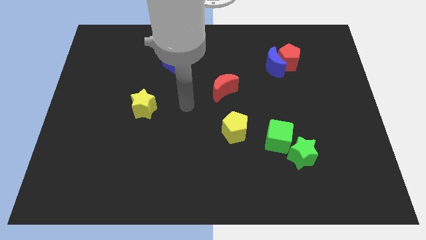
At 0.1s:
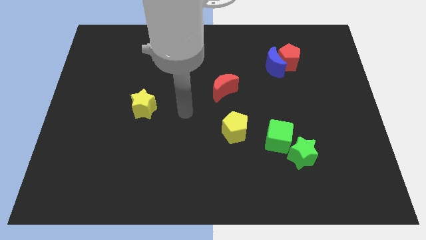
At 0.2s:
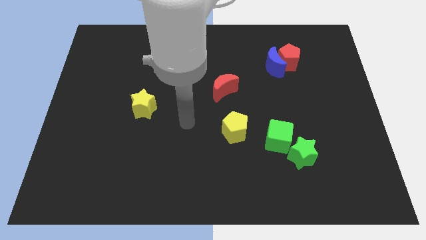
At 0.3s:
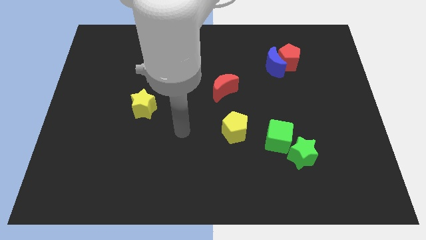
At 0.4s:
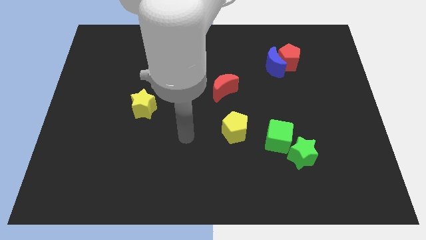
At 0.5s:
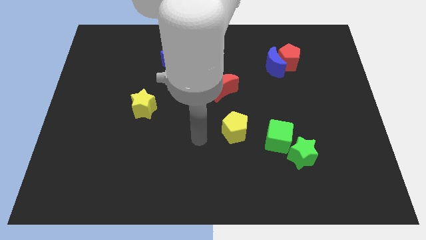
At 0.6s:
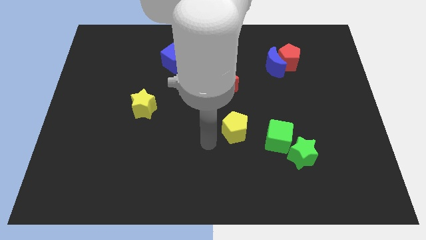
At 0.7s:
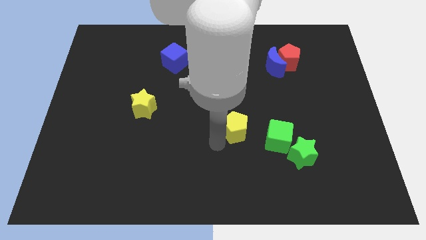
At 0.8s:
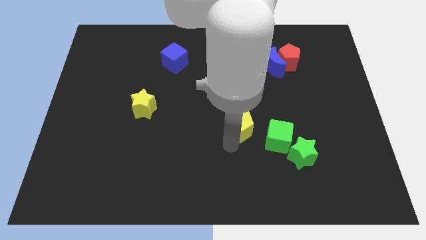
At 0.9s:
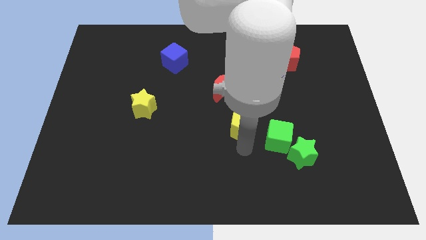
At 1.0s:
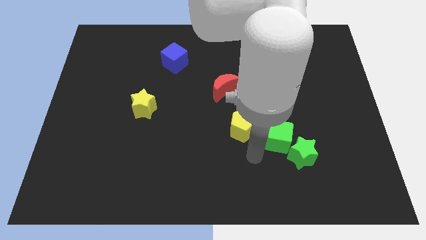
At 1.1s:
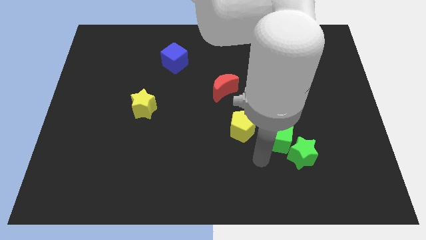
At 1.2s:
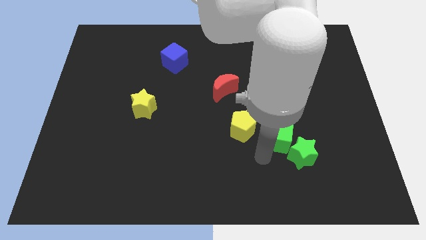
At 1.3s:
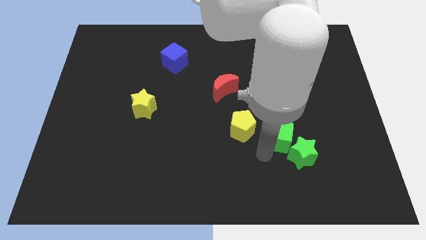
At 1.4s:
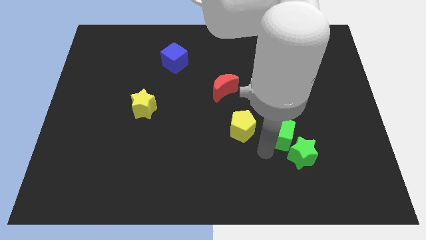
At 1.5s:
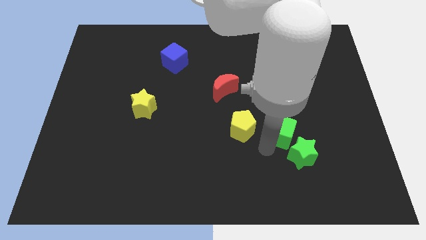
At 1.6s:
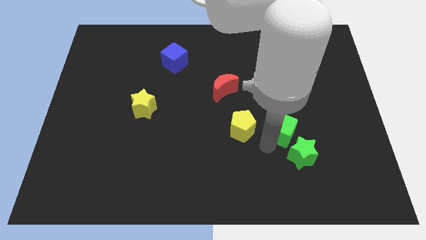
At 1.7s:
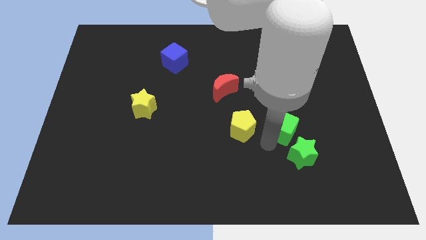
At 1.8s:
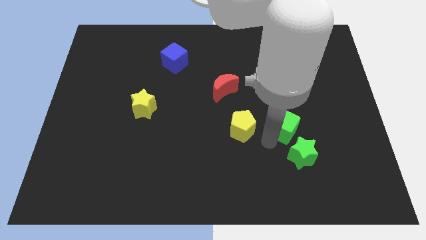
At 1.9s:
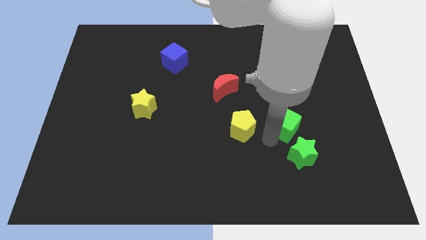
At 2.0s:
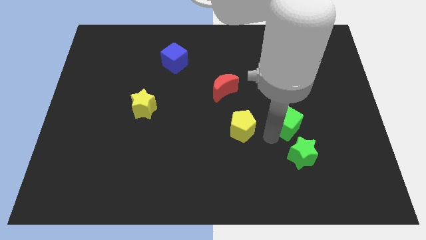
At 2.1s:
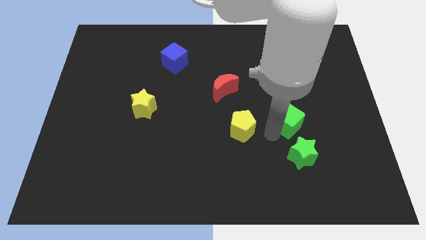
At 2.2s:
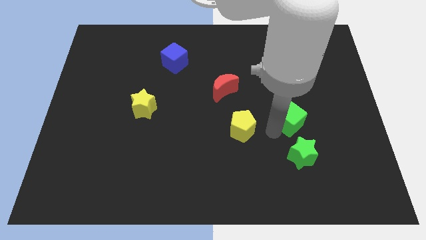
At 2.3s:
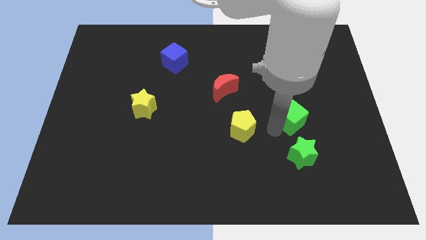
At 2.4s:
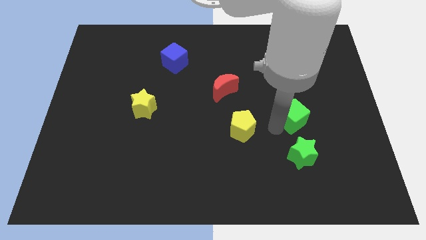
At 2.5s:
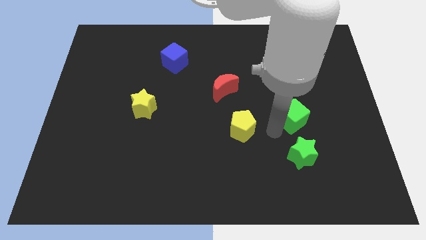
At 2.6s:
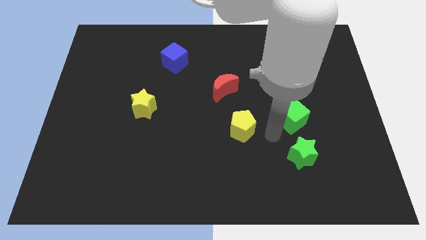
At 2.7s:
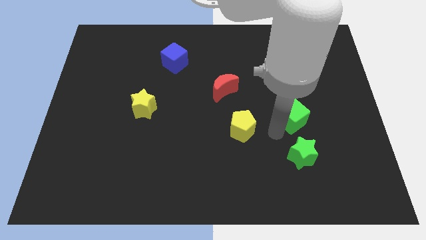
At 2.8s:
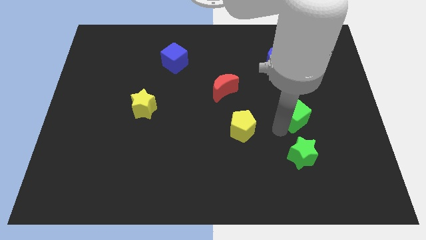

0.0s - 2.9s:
slightly slide the green cube upwards and right

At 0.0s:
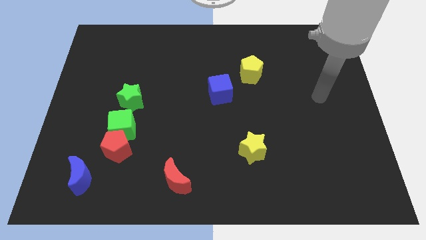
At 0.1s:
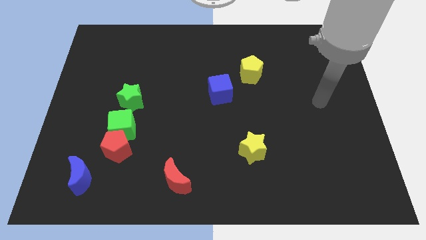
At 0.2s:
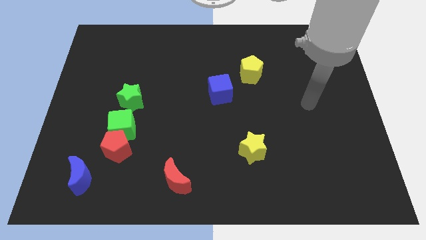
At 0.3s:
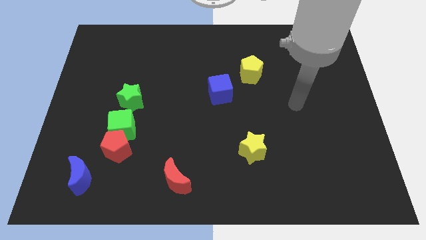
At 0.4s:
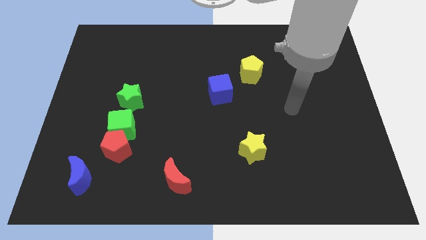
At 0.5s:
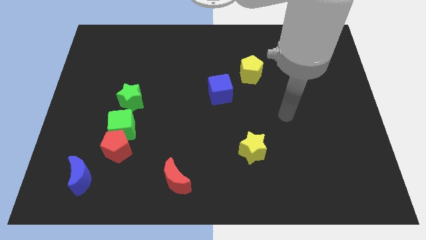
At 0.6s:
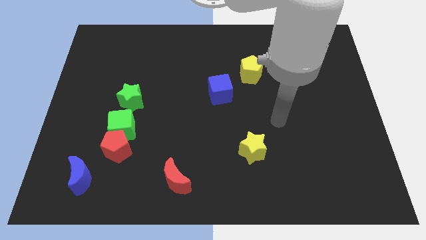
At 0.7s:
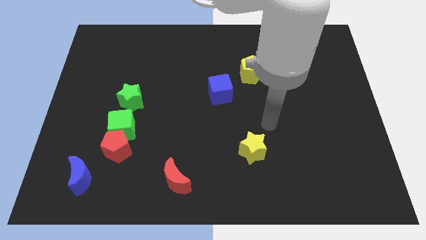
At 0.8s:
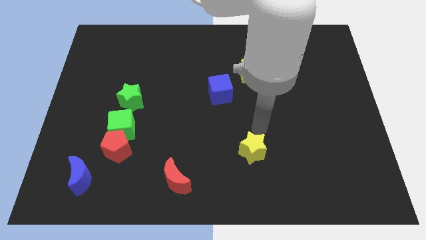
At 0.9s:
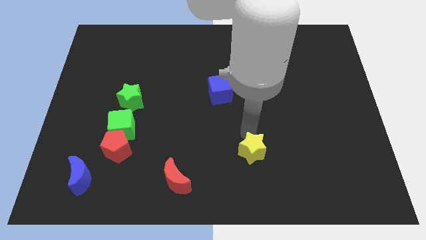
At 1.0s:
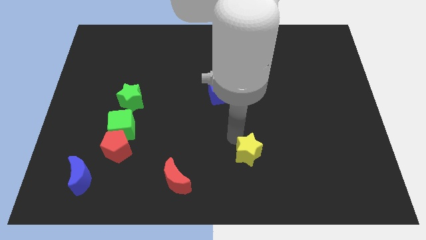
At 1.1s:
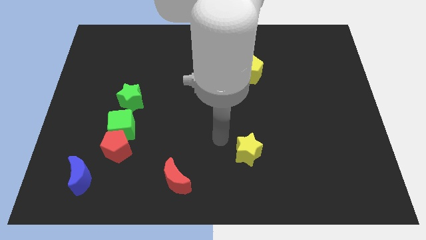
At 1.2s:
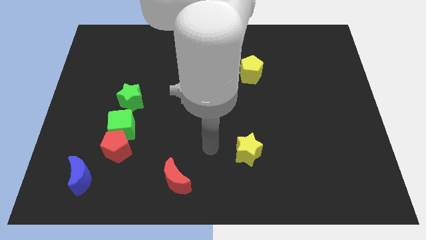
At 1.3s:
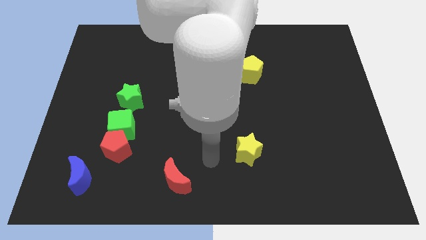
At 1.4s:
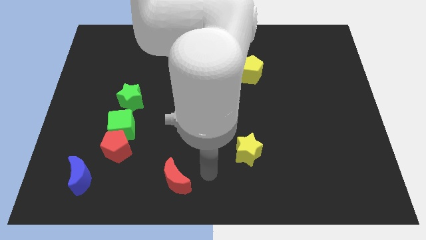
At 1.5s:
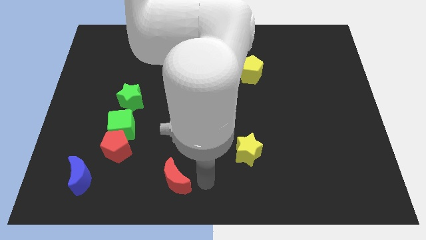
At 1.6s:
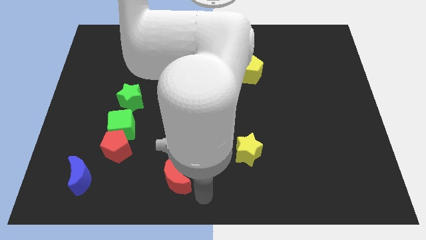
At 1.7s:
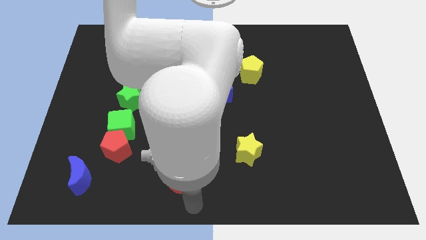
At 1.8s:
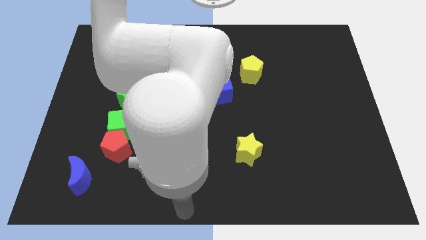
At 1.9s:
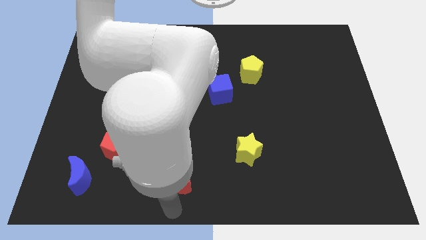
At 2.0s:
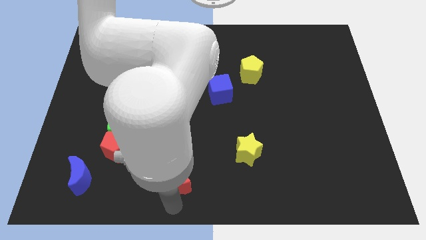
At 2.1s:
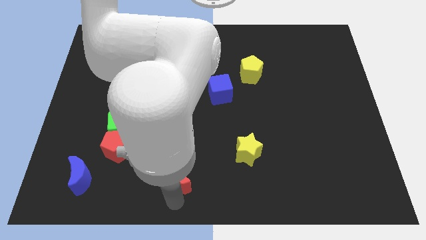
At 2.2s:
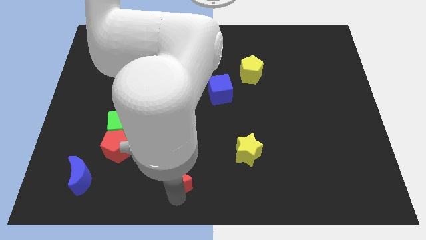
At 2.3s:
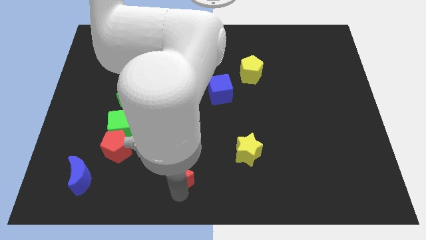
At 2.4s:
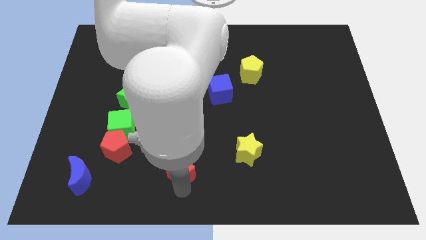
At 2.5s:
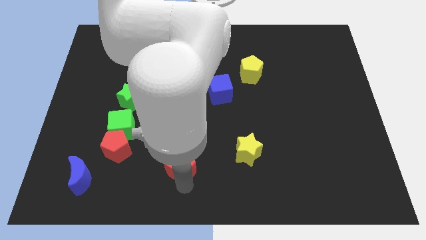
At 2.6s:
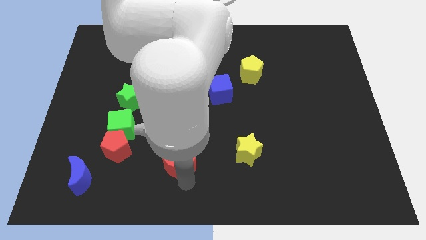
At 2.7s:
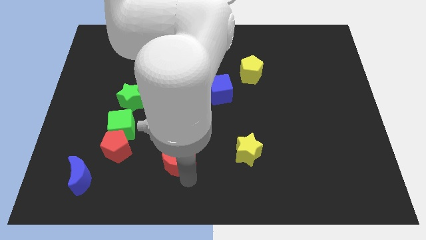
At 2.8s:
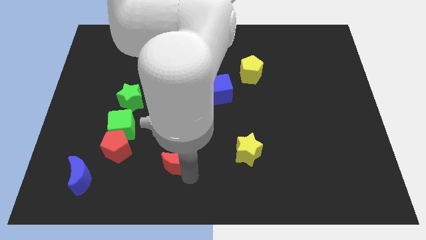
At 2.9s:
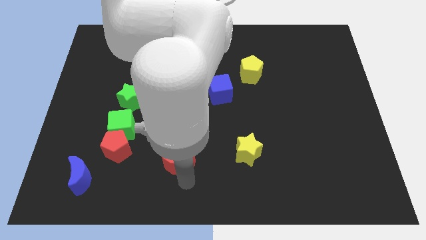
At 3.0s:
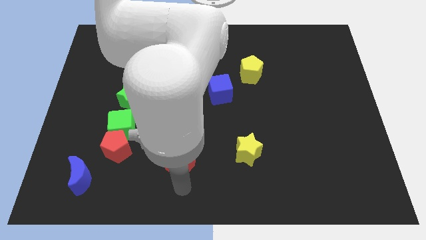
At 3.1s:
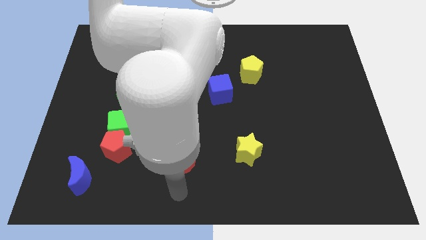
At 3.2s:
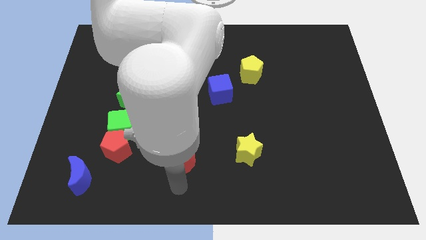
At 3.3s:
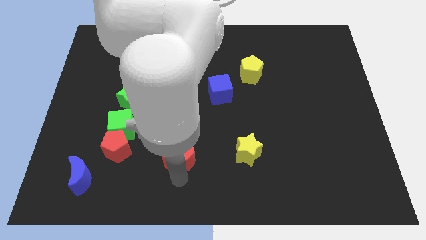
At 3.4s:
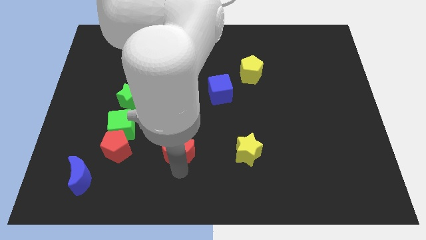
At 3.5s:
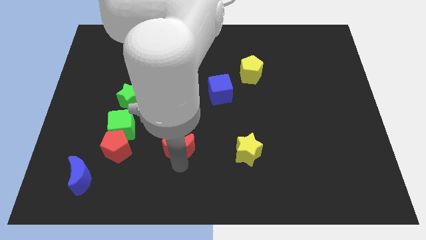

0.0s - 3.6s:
move the red moon a bit upwards

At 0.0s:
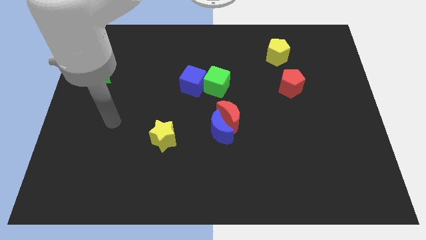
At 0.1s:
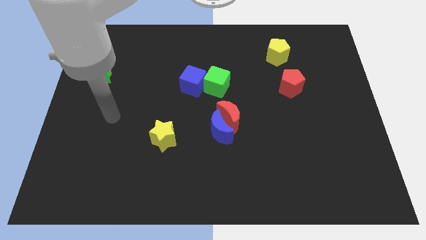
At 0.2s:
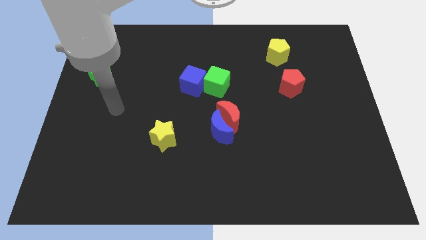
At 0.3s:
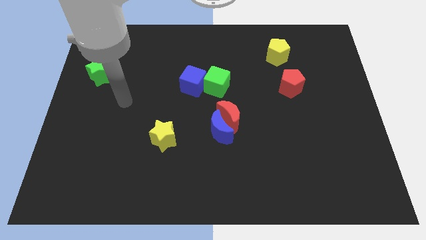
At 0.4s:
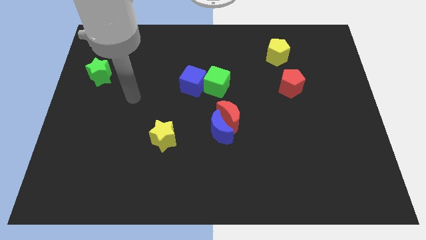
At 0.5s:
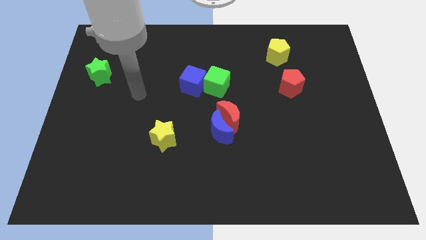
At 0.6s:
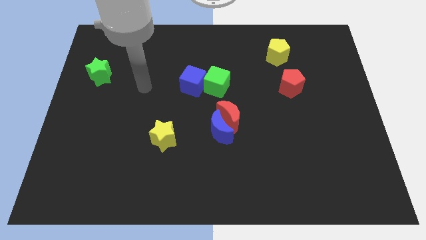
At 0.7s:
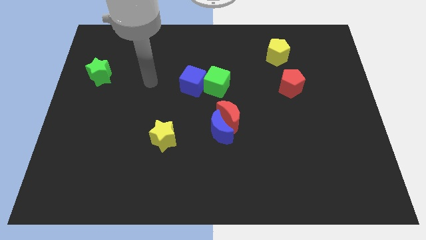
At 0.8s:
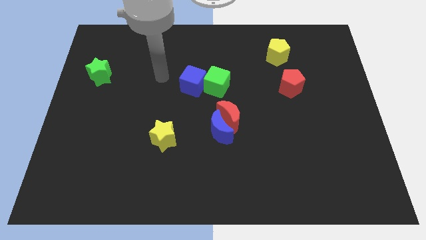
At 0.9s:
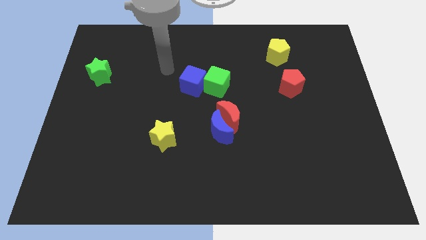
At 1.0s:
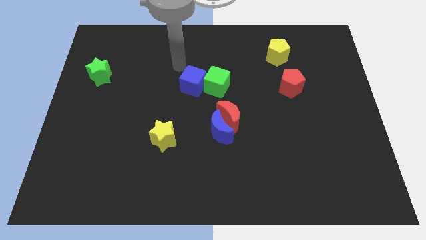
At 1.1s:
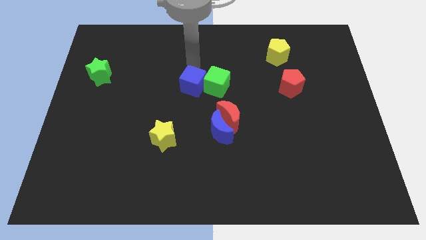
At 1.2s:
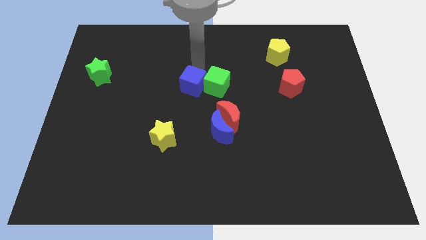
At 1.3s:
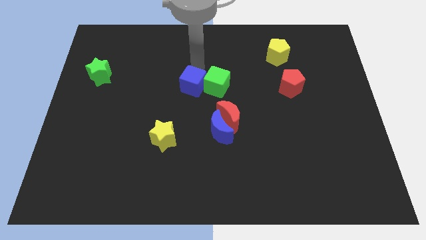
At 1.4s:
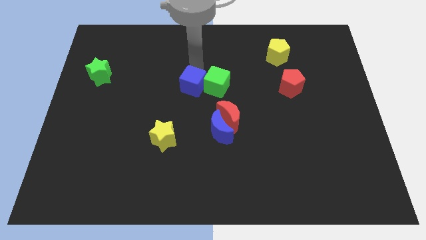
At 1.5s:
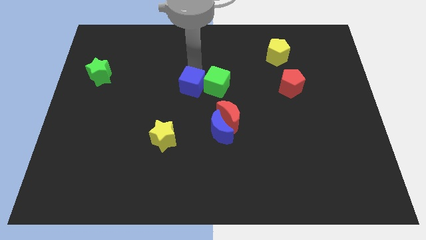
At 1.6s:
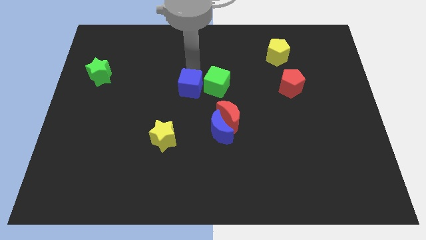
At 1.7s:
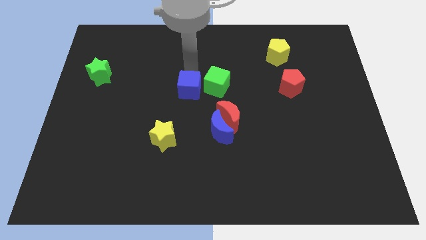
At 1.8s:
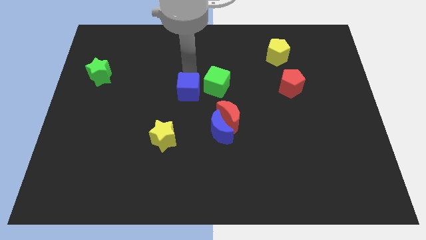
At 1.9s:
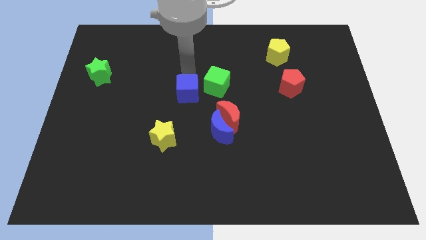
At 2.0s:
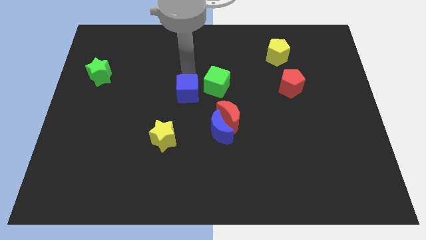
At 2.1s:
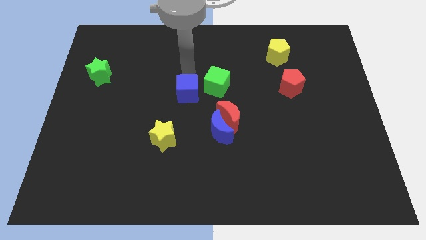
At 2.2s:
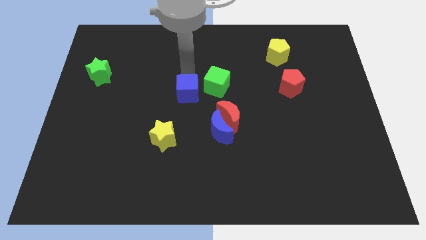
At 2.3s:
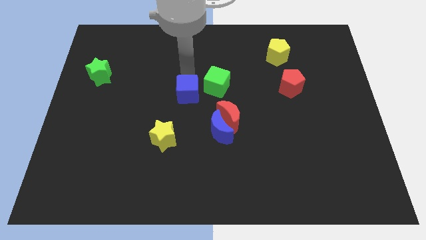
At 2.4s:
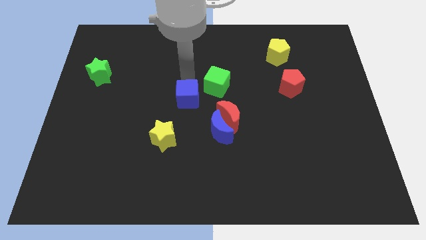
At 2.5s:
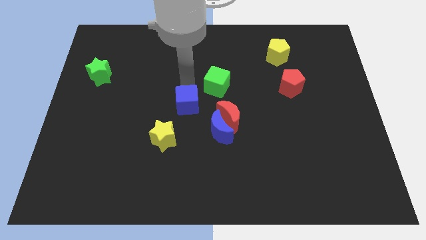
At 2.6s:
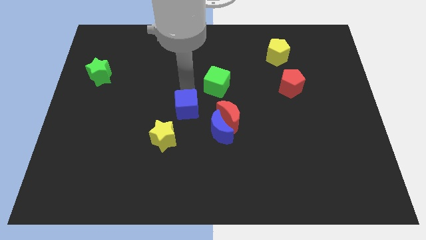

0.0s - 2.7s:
push the blue cube somewhat downwards
